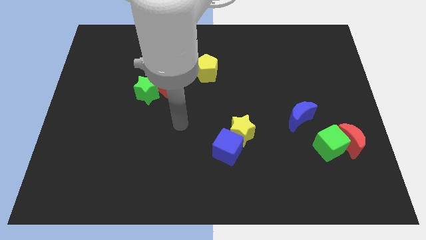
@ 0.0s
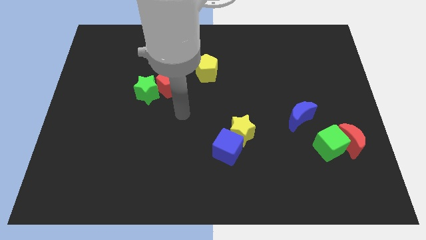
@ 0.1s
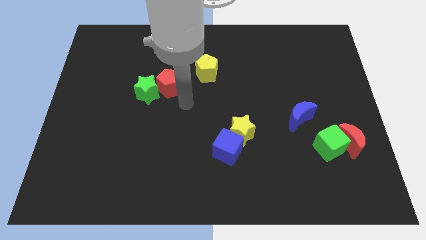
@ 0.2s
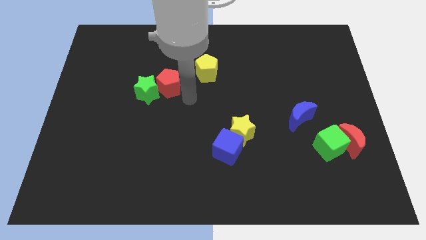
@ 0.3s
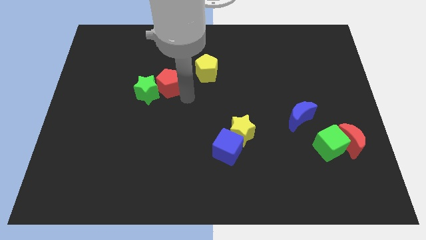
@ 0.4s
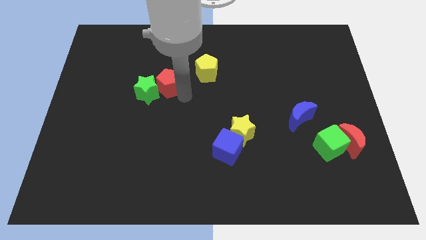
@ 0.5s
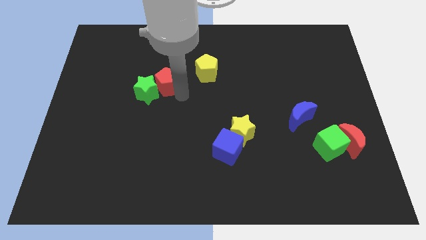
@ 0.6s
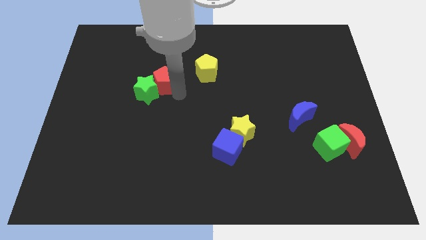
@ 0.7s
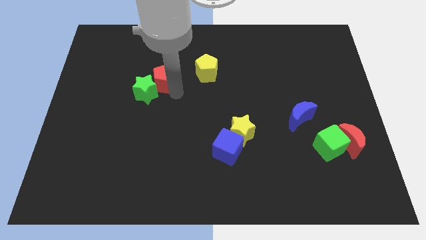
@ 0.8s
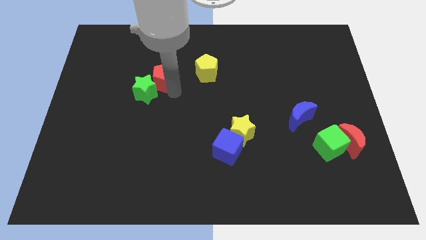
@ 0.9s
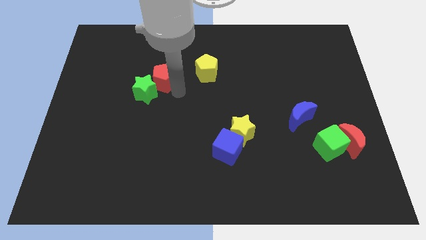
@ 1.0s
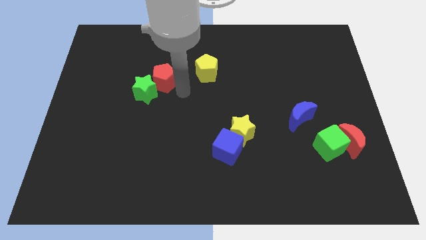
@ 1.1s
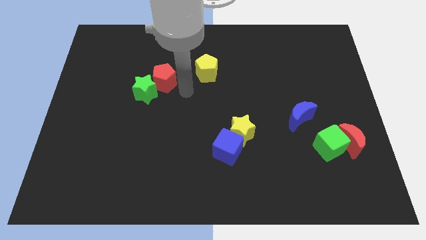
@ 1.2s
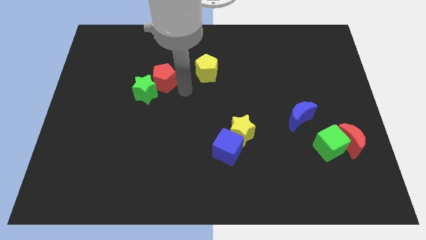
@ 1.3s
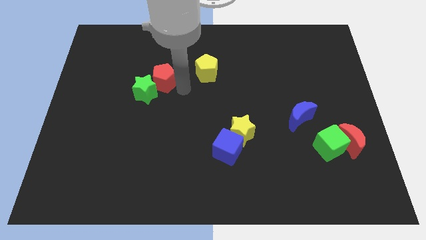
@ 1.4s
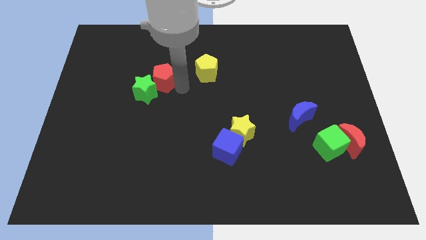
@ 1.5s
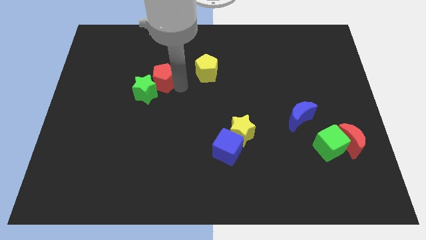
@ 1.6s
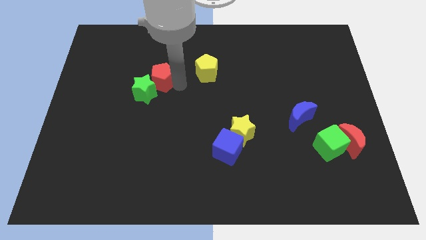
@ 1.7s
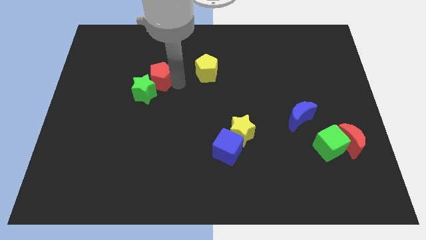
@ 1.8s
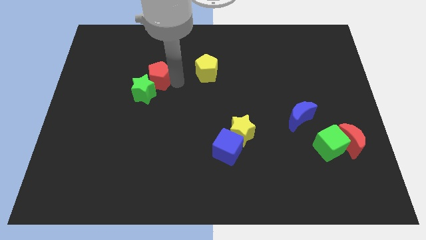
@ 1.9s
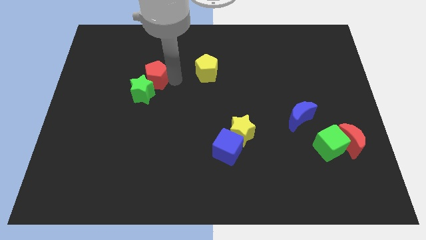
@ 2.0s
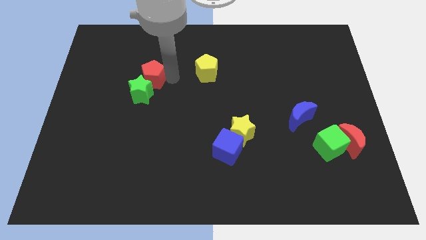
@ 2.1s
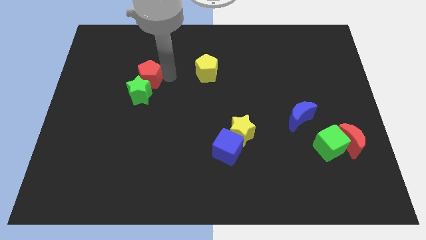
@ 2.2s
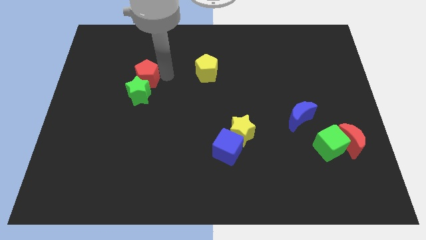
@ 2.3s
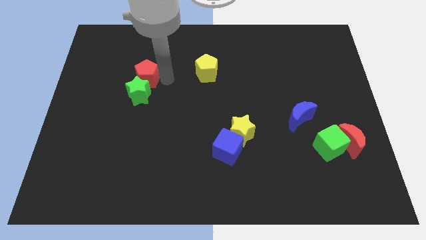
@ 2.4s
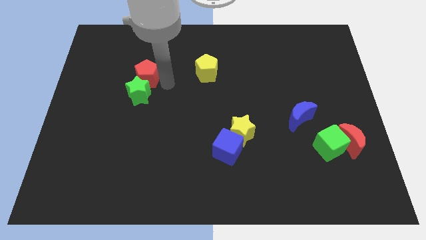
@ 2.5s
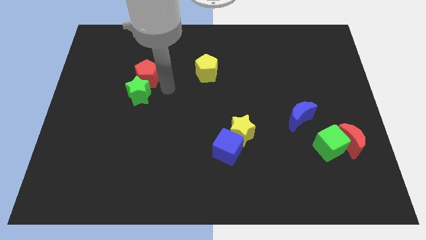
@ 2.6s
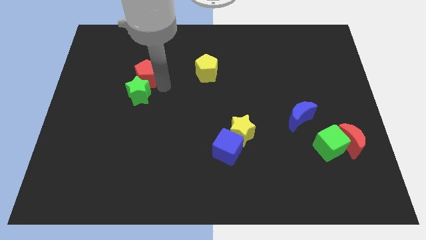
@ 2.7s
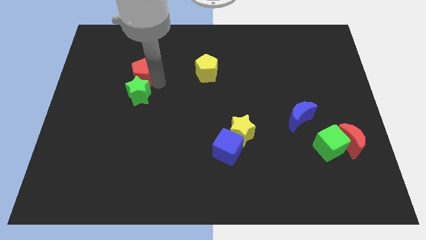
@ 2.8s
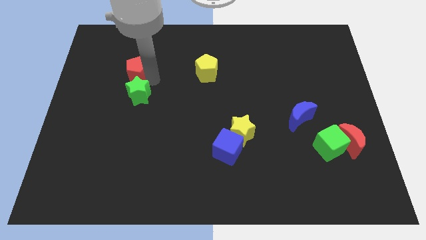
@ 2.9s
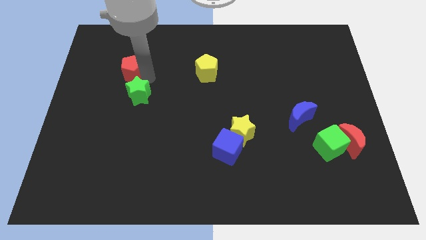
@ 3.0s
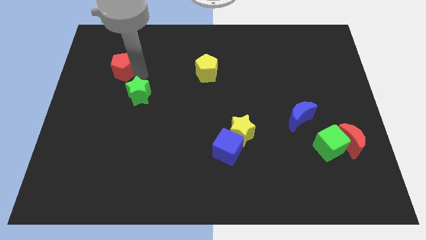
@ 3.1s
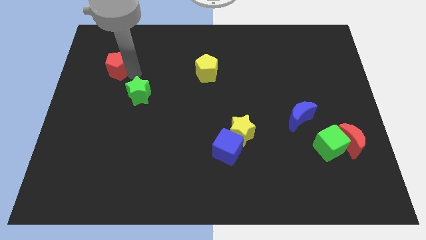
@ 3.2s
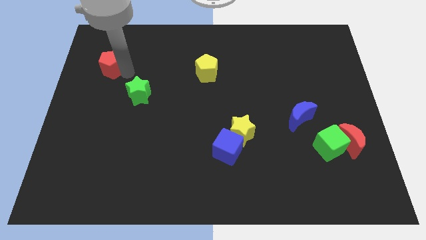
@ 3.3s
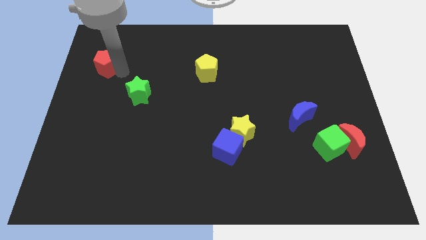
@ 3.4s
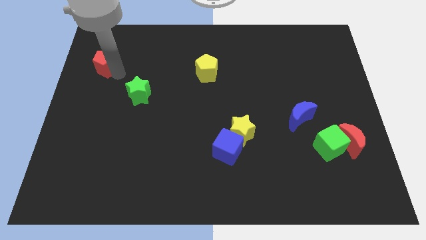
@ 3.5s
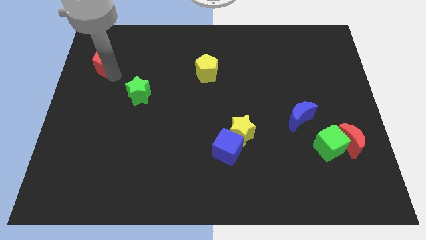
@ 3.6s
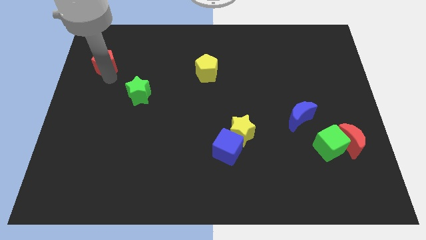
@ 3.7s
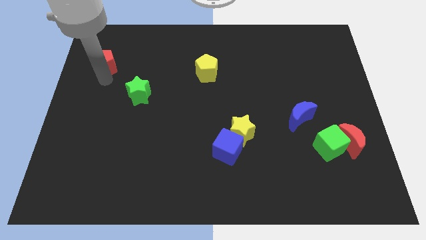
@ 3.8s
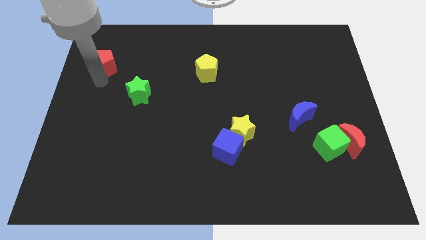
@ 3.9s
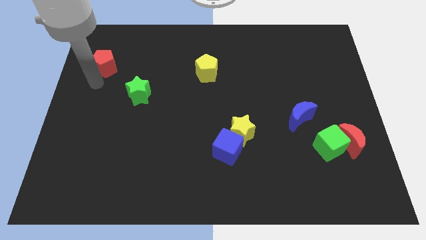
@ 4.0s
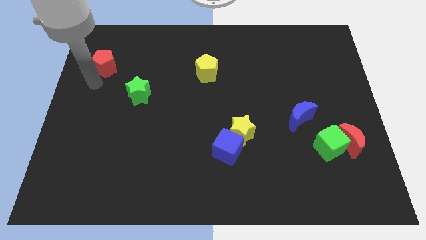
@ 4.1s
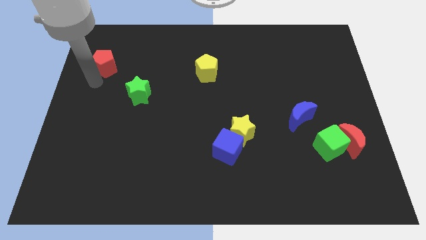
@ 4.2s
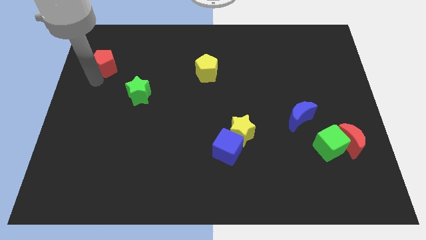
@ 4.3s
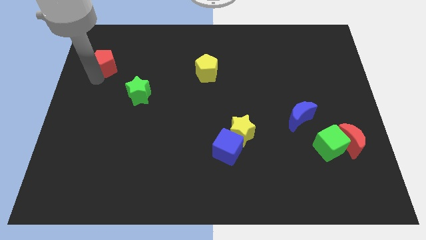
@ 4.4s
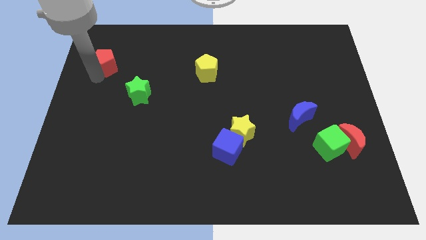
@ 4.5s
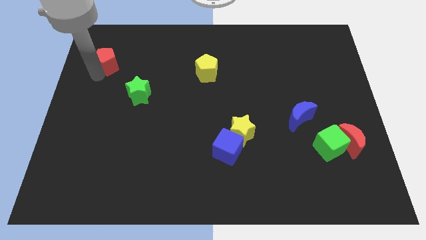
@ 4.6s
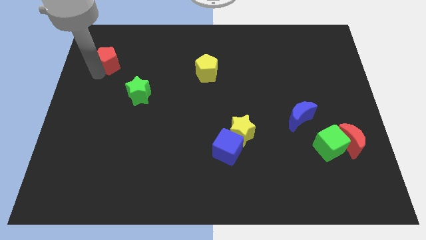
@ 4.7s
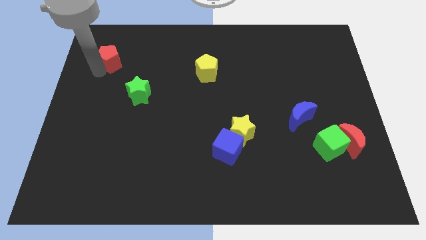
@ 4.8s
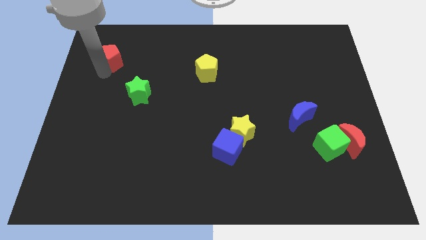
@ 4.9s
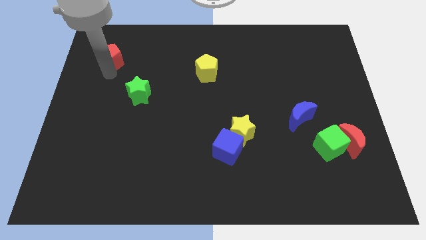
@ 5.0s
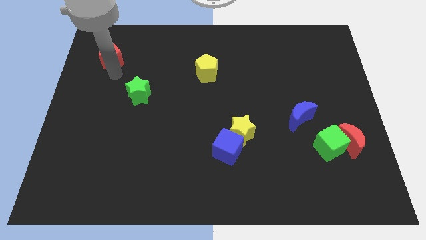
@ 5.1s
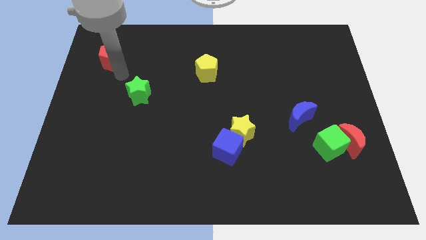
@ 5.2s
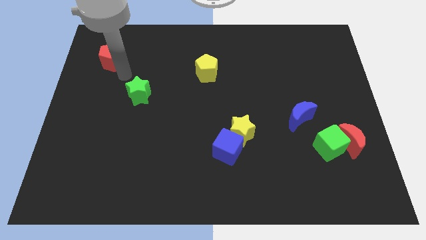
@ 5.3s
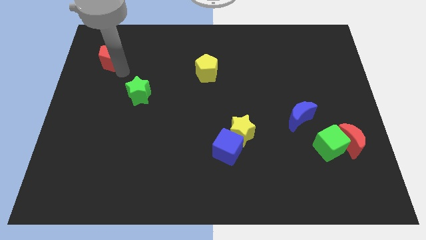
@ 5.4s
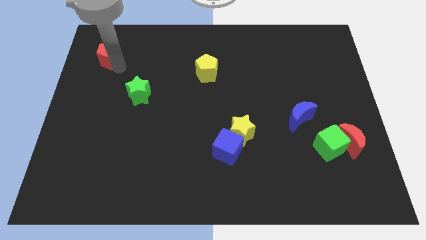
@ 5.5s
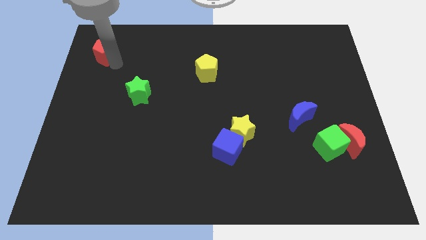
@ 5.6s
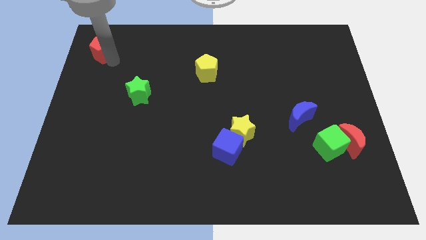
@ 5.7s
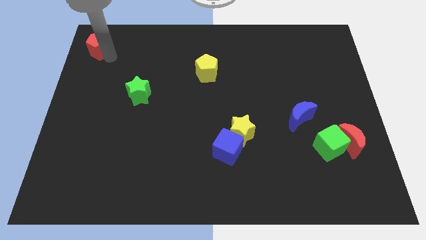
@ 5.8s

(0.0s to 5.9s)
slide the red pentagon to the top left corner
